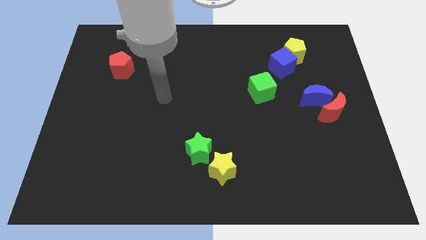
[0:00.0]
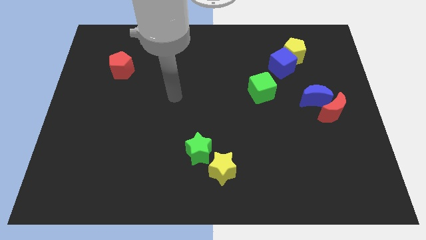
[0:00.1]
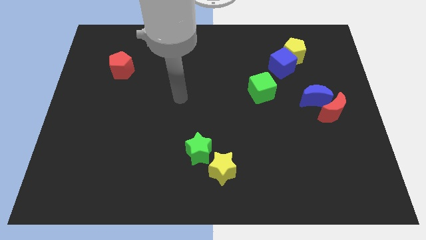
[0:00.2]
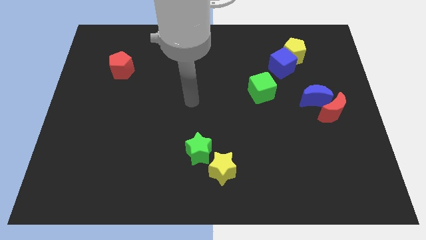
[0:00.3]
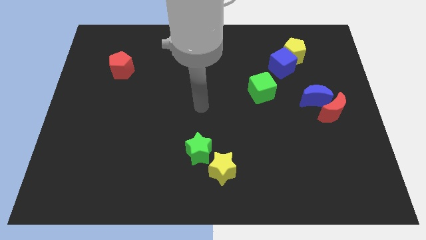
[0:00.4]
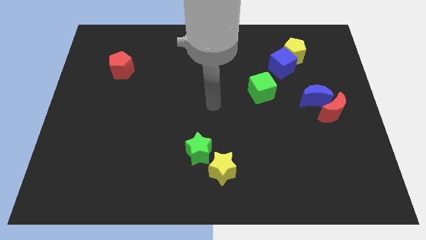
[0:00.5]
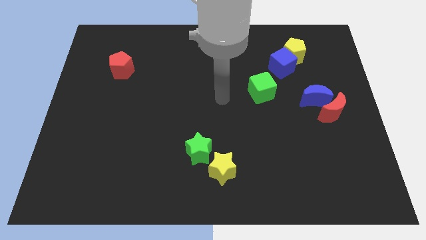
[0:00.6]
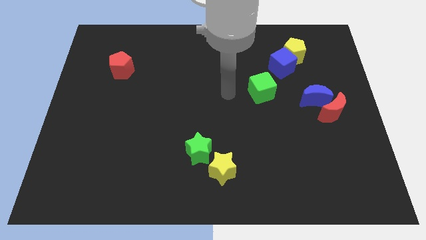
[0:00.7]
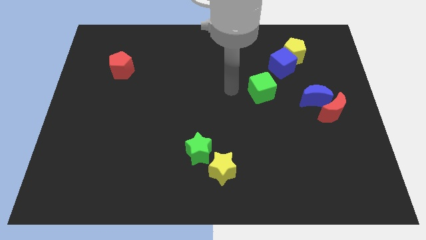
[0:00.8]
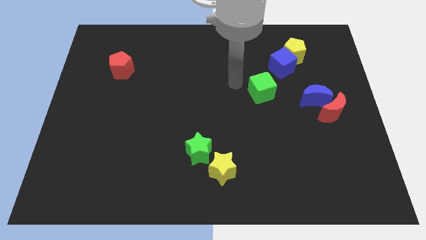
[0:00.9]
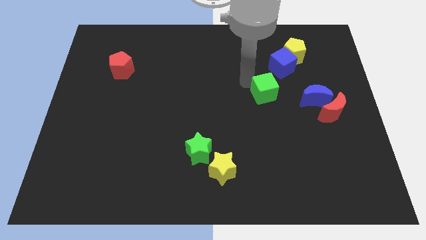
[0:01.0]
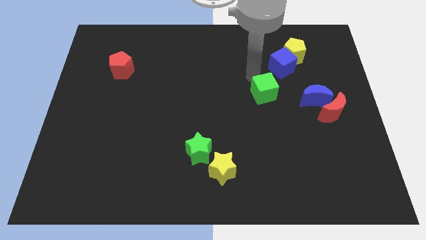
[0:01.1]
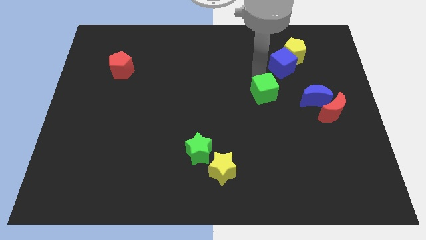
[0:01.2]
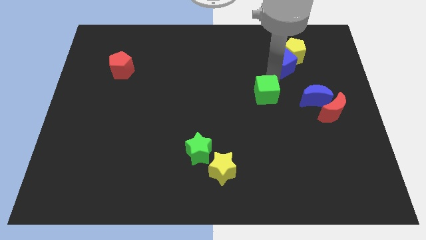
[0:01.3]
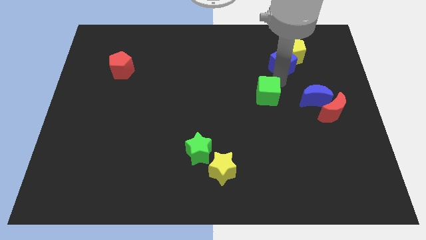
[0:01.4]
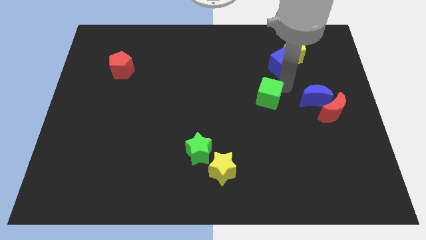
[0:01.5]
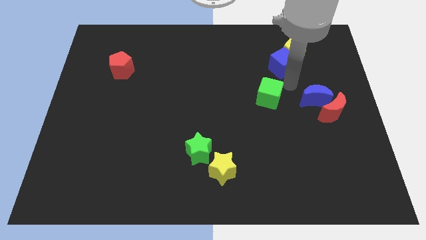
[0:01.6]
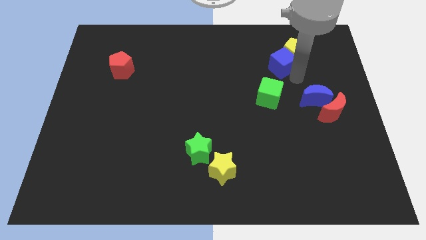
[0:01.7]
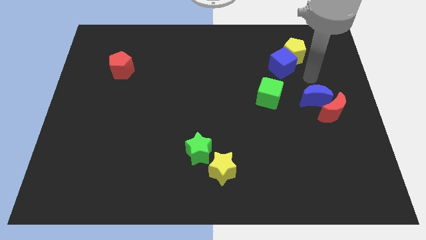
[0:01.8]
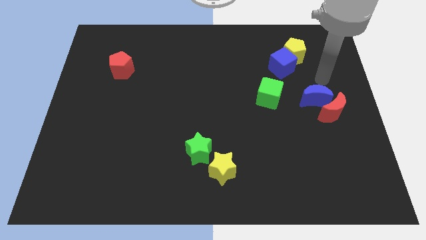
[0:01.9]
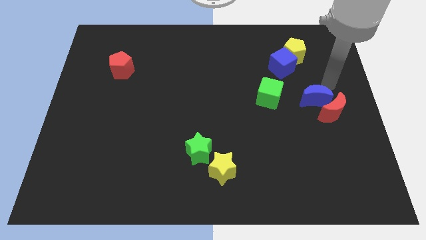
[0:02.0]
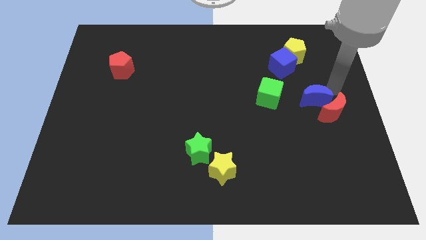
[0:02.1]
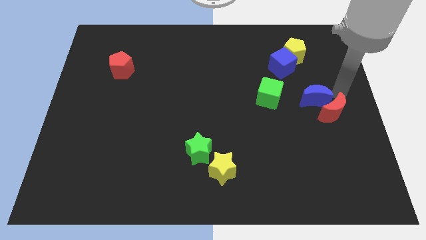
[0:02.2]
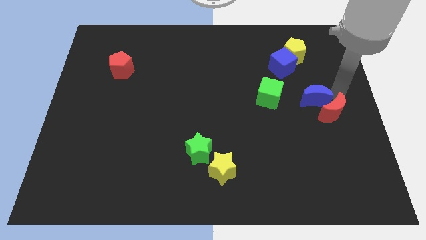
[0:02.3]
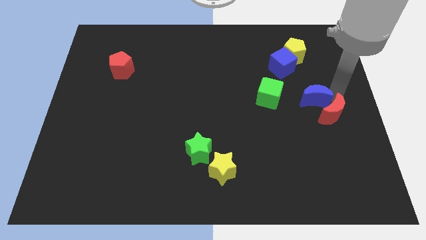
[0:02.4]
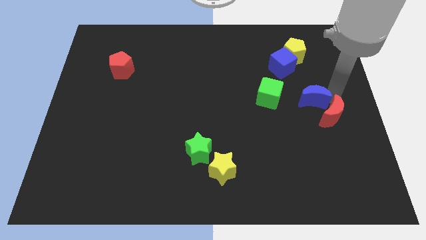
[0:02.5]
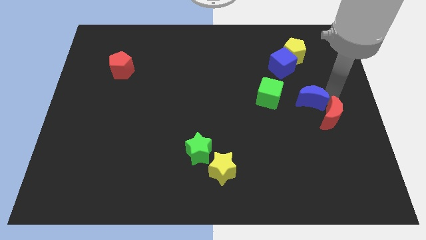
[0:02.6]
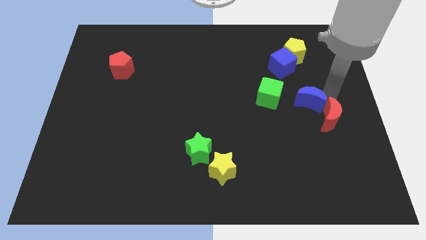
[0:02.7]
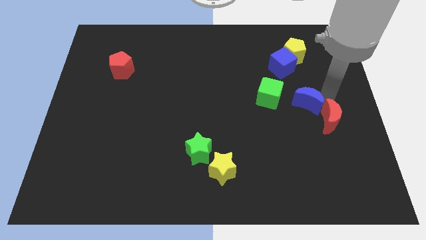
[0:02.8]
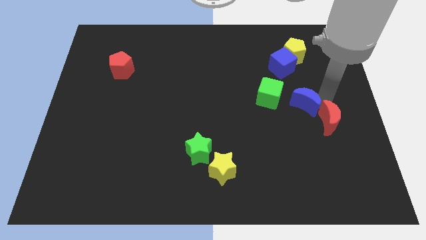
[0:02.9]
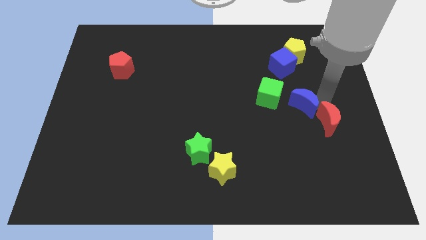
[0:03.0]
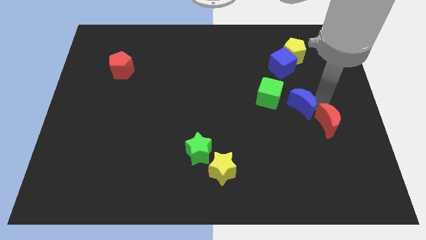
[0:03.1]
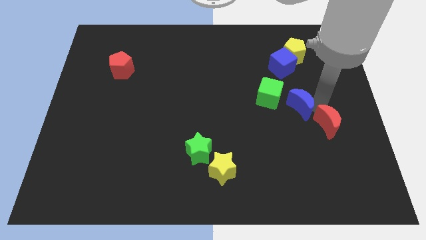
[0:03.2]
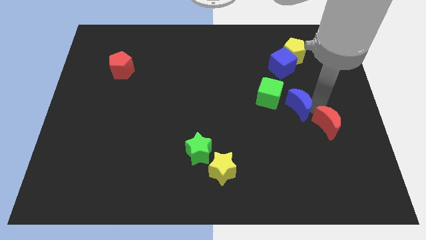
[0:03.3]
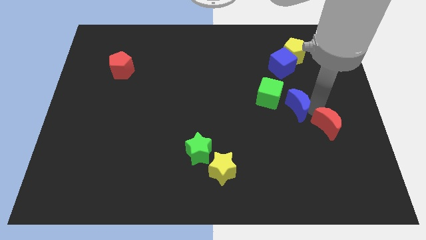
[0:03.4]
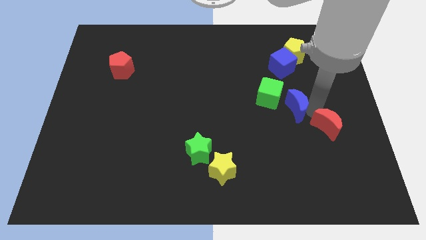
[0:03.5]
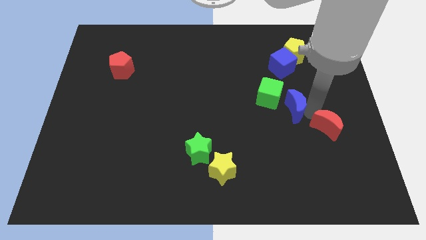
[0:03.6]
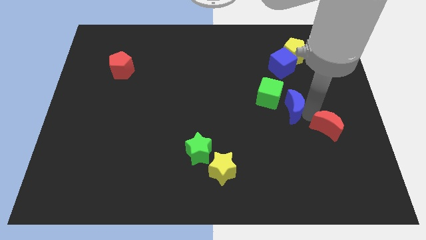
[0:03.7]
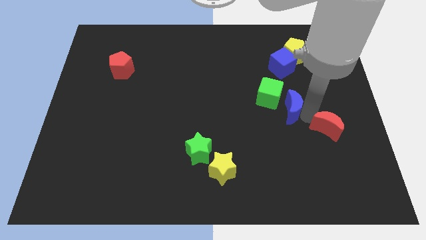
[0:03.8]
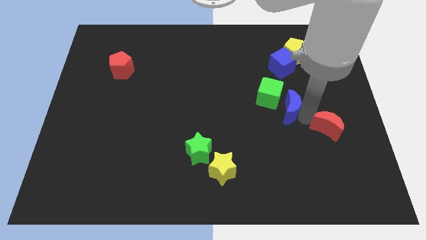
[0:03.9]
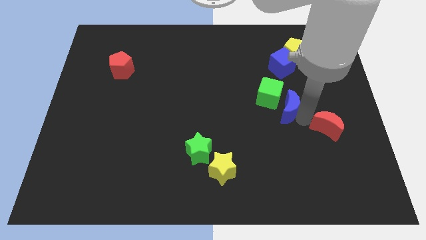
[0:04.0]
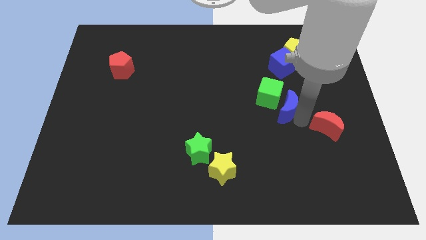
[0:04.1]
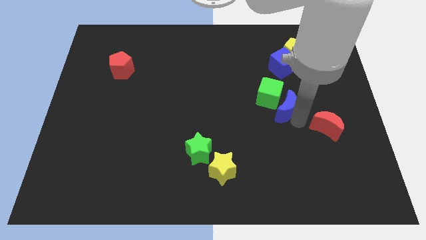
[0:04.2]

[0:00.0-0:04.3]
slide the blue moon slightly to the left

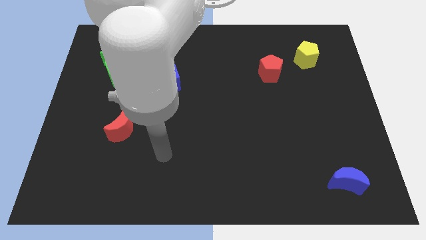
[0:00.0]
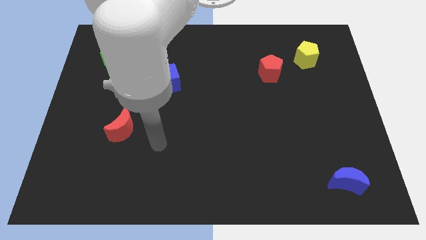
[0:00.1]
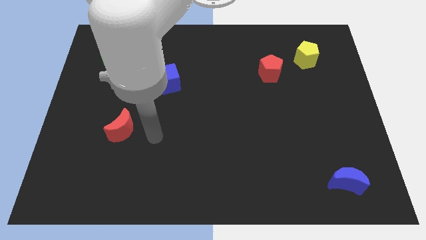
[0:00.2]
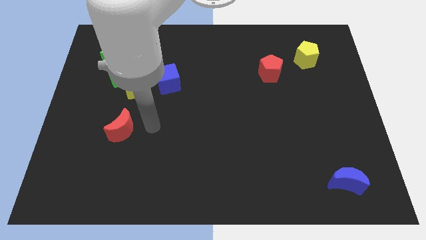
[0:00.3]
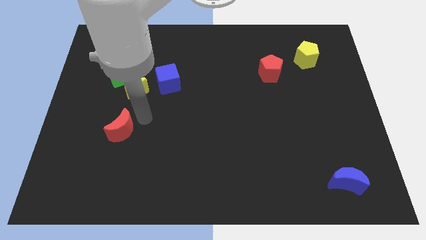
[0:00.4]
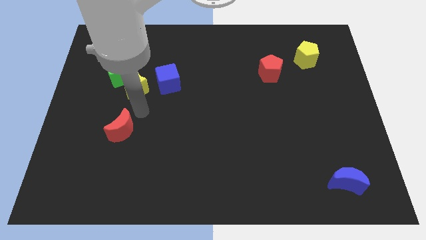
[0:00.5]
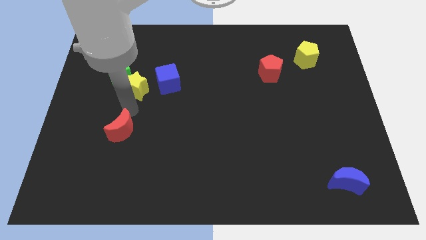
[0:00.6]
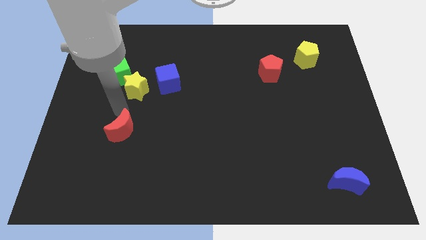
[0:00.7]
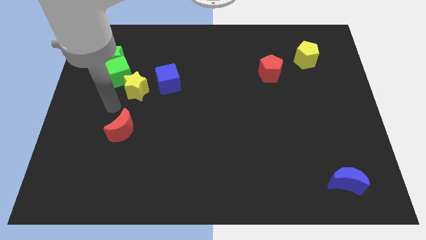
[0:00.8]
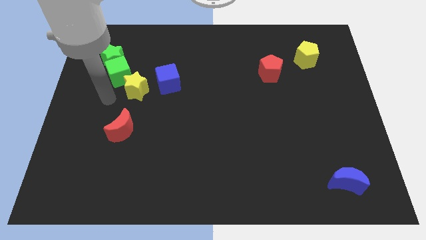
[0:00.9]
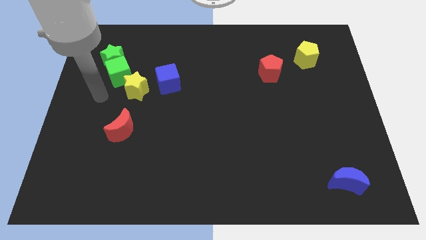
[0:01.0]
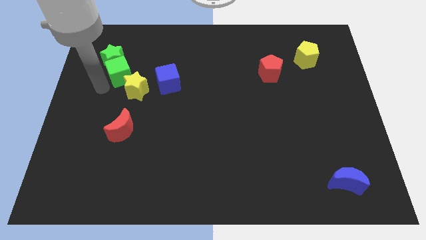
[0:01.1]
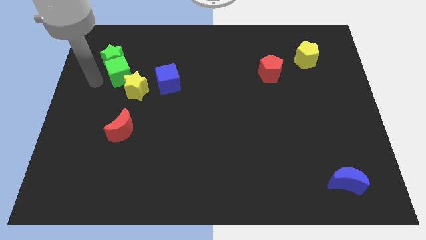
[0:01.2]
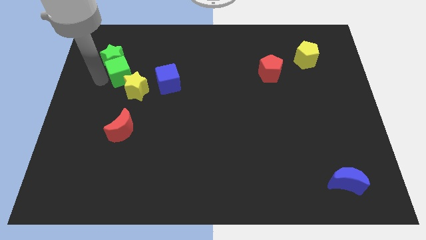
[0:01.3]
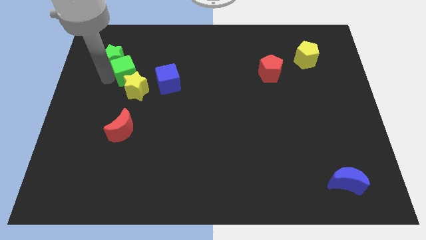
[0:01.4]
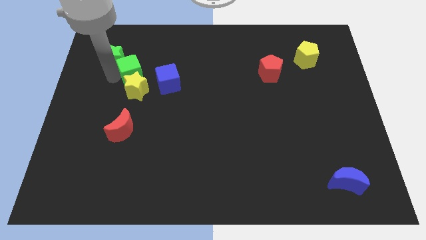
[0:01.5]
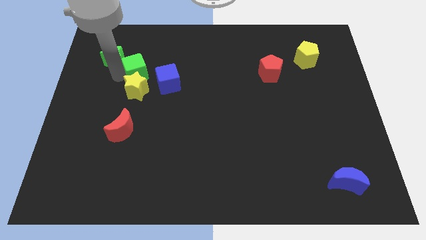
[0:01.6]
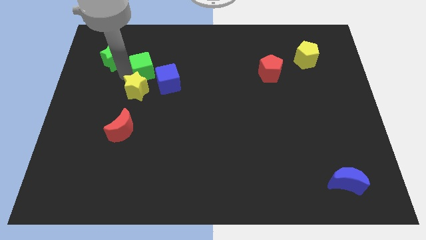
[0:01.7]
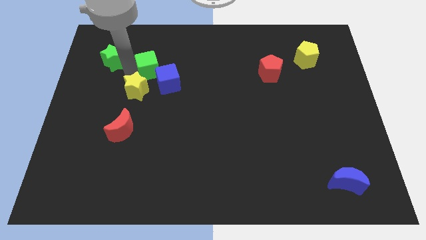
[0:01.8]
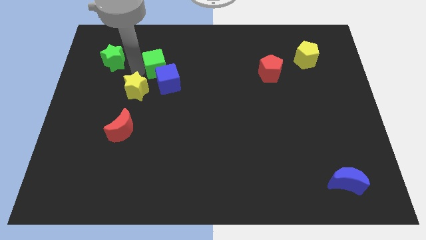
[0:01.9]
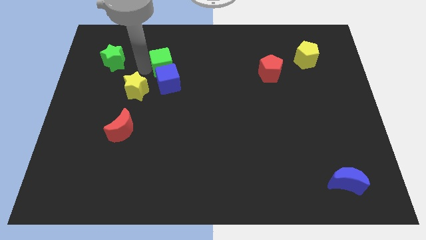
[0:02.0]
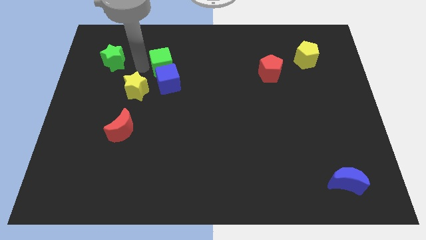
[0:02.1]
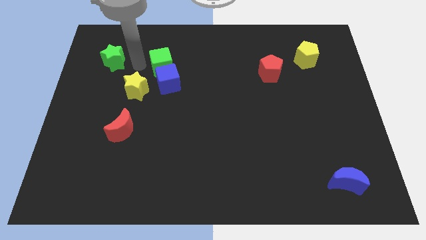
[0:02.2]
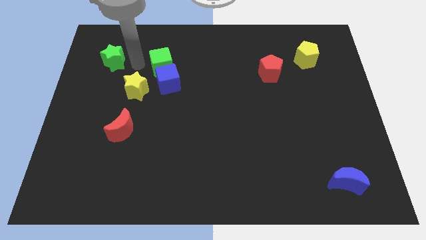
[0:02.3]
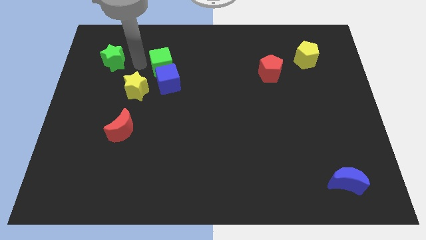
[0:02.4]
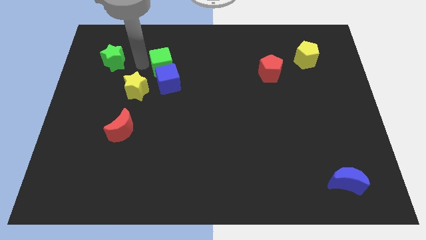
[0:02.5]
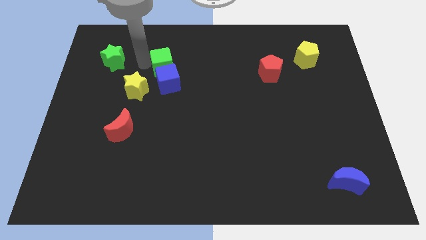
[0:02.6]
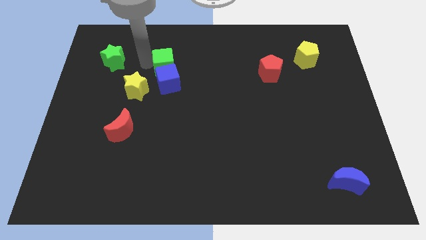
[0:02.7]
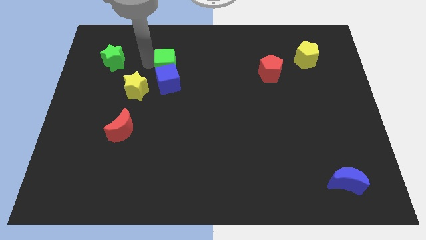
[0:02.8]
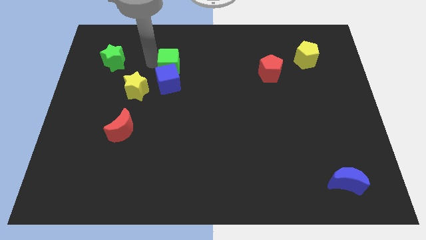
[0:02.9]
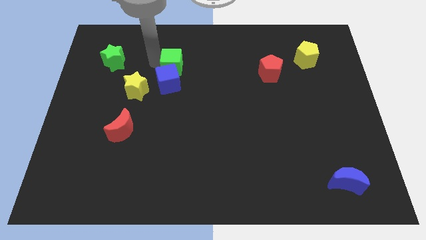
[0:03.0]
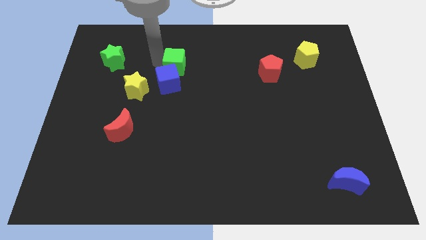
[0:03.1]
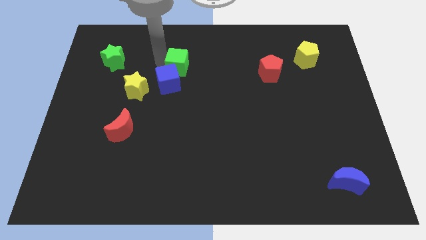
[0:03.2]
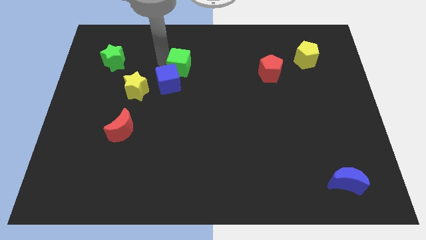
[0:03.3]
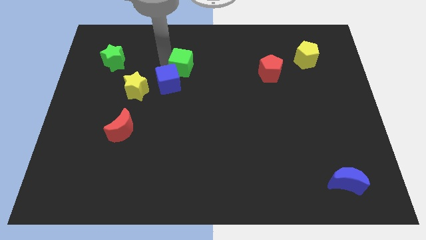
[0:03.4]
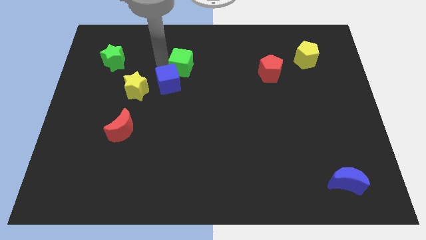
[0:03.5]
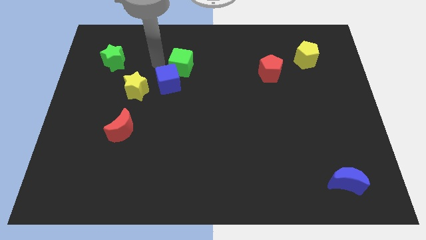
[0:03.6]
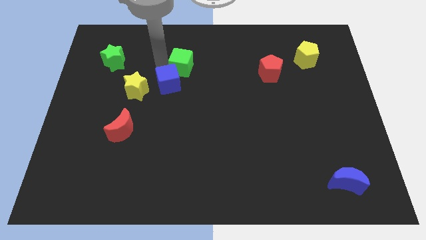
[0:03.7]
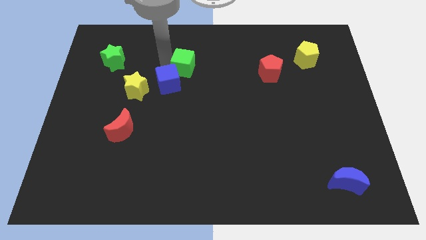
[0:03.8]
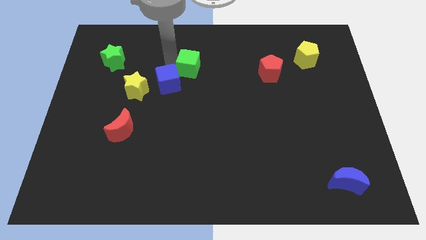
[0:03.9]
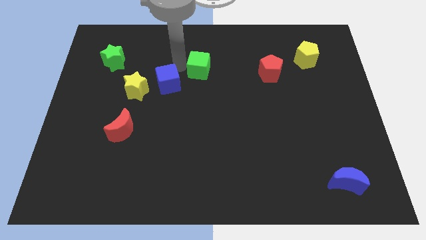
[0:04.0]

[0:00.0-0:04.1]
push the green cube right

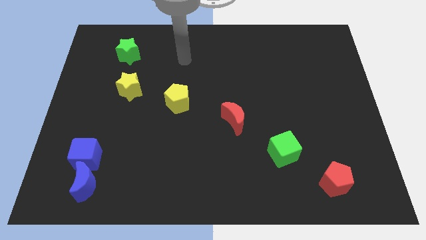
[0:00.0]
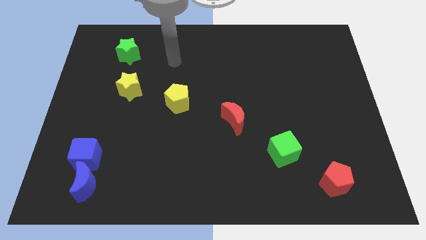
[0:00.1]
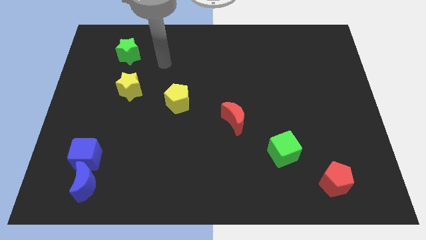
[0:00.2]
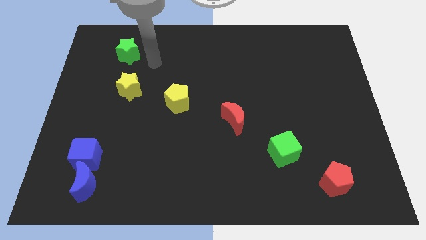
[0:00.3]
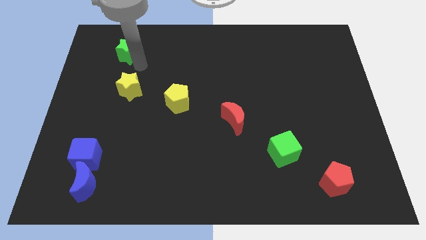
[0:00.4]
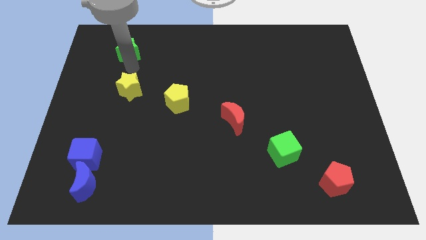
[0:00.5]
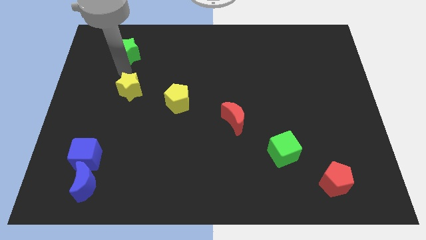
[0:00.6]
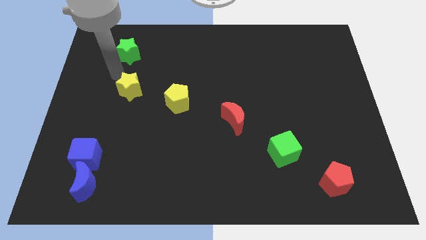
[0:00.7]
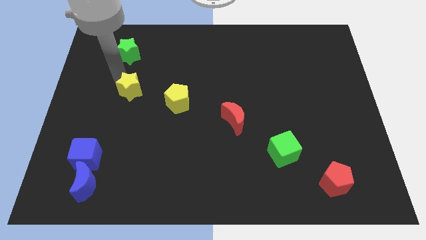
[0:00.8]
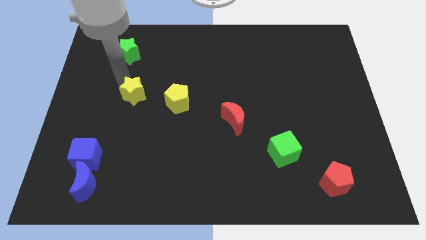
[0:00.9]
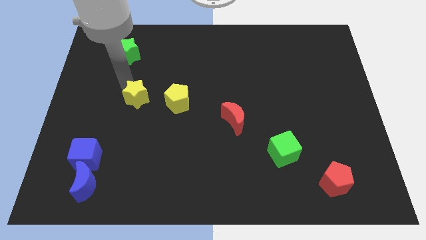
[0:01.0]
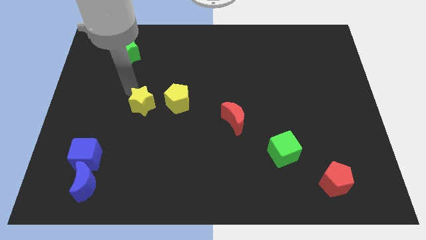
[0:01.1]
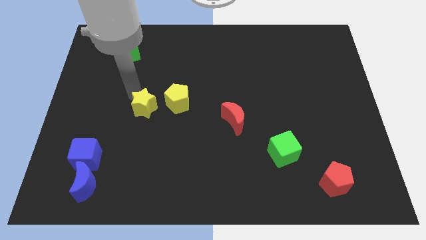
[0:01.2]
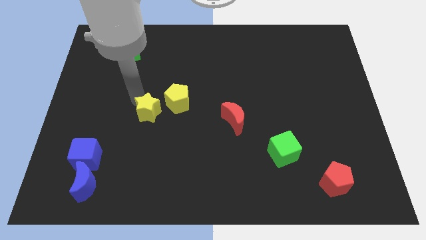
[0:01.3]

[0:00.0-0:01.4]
push the yellow star a little down and to the right diagonally
